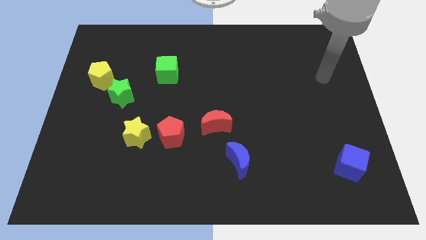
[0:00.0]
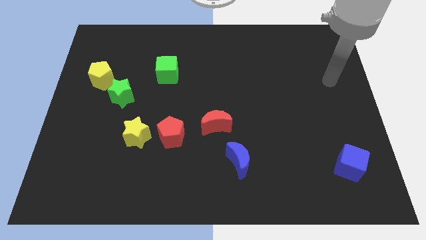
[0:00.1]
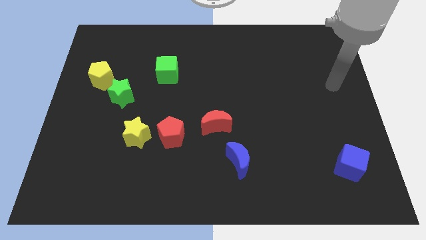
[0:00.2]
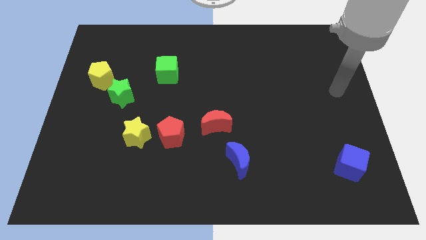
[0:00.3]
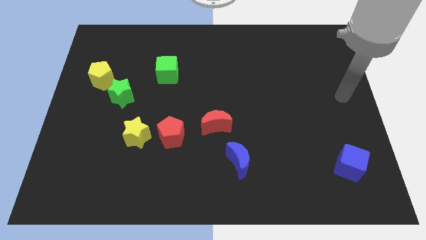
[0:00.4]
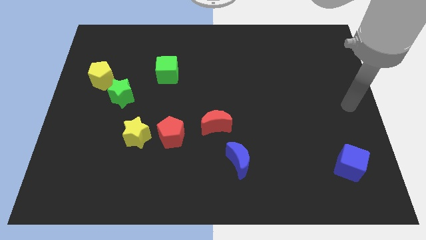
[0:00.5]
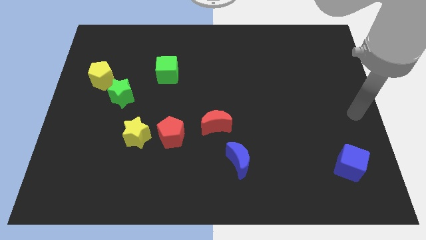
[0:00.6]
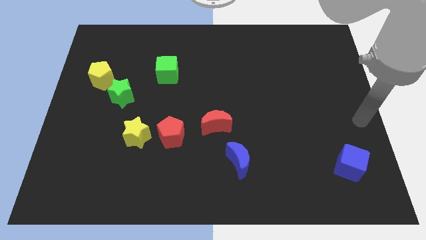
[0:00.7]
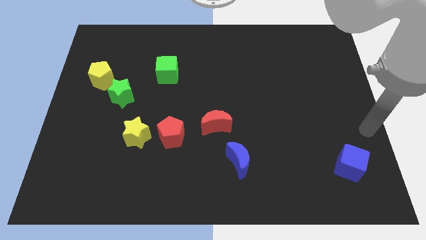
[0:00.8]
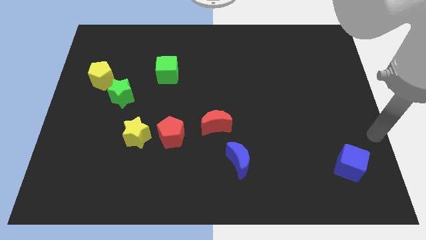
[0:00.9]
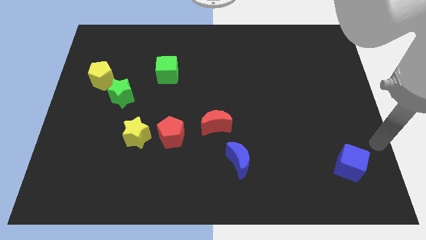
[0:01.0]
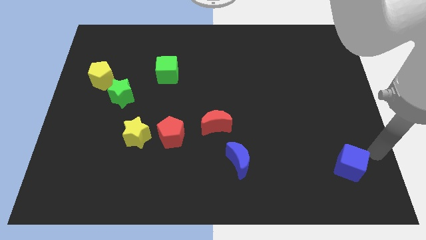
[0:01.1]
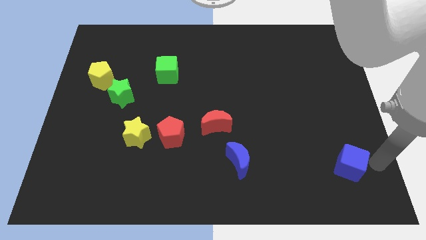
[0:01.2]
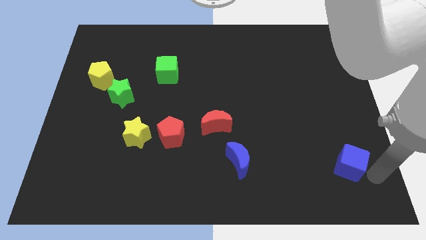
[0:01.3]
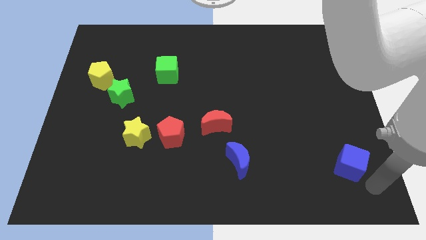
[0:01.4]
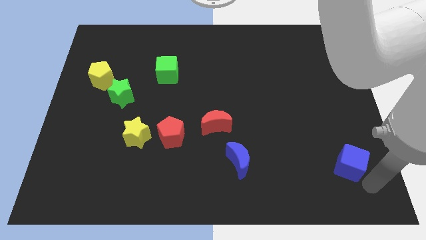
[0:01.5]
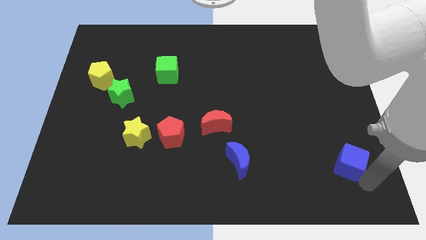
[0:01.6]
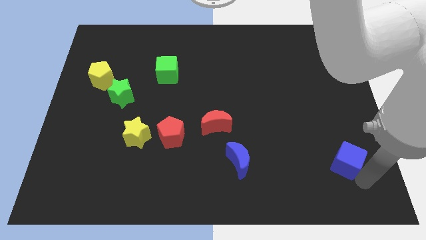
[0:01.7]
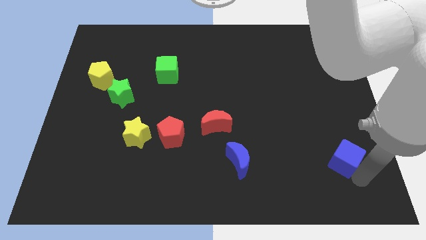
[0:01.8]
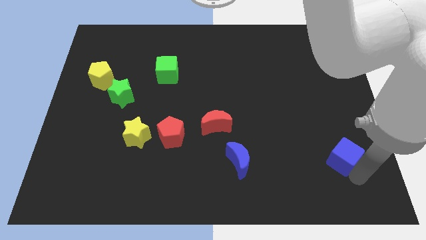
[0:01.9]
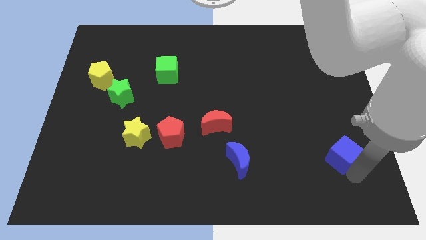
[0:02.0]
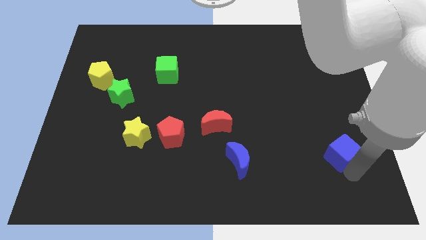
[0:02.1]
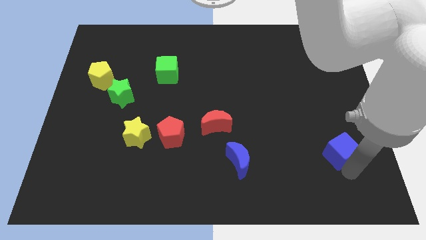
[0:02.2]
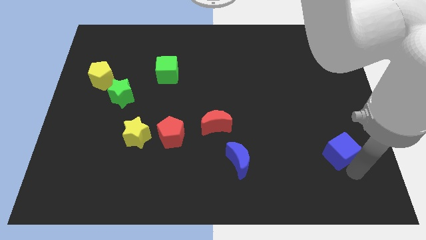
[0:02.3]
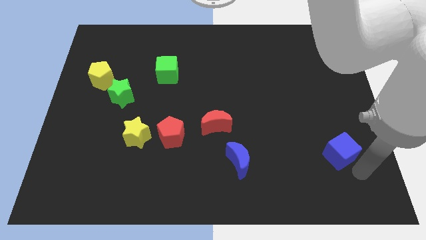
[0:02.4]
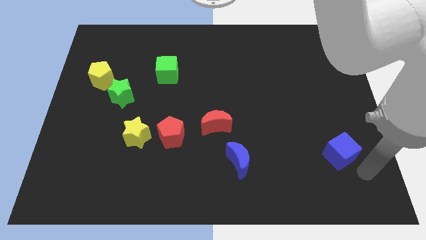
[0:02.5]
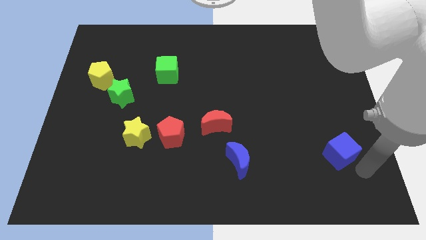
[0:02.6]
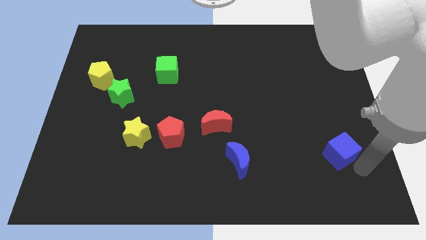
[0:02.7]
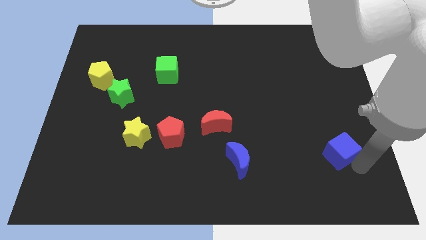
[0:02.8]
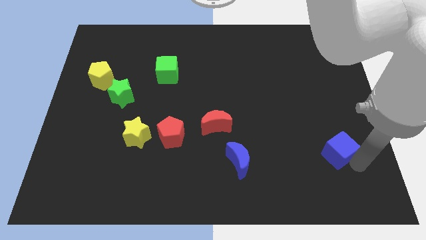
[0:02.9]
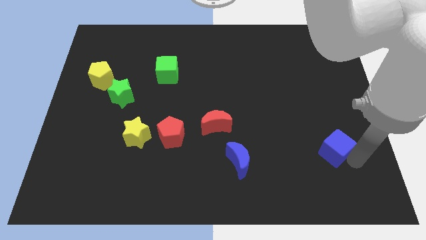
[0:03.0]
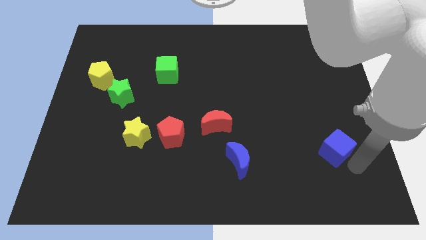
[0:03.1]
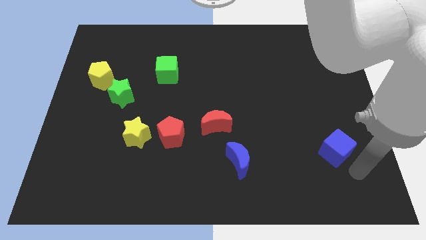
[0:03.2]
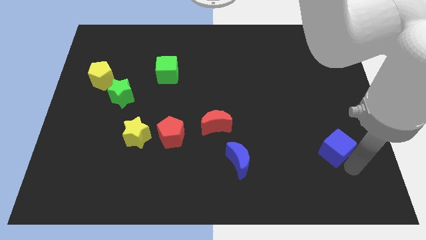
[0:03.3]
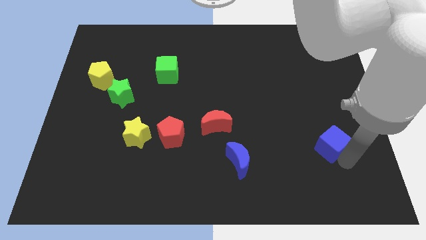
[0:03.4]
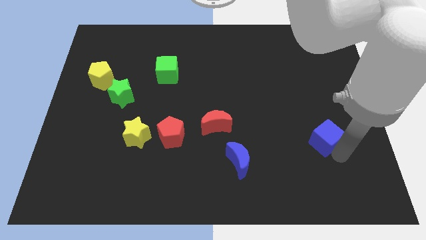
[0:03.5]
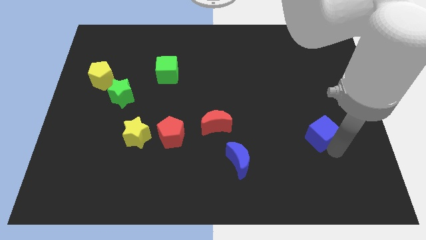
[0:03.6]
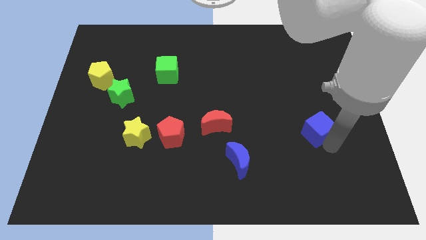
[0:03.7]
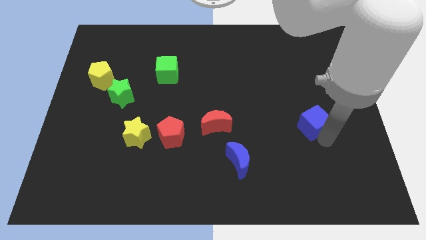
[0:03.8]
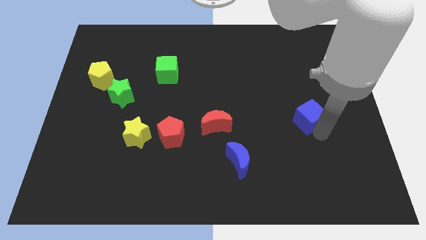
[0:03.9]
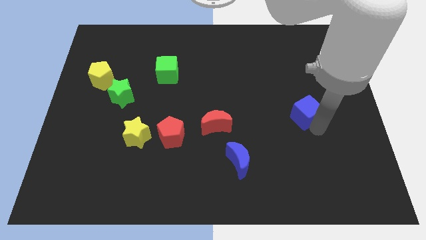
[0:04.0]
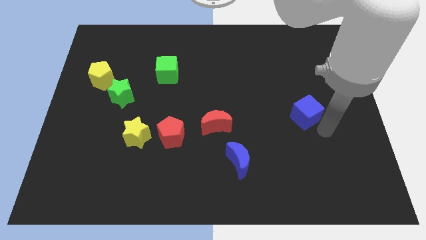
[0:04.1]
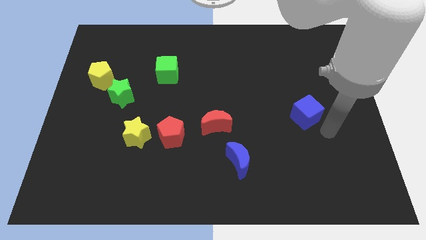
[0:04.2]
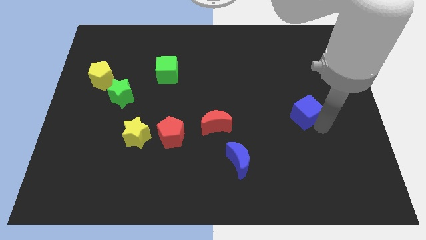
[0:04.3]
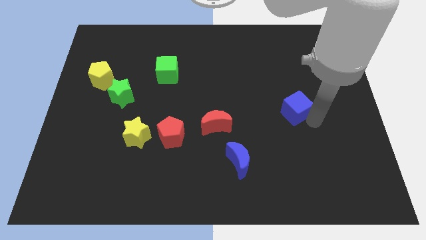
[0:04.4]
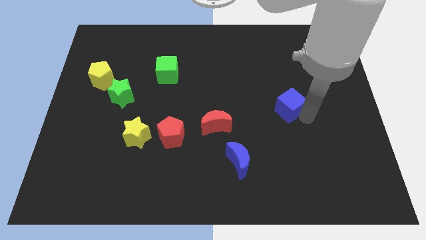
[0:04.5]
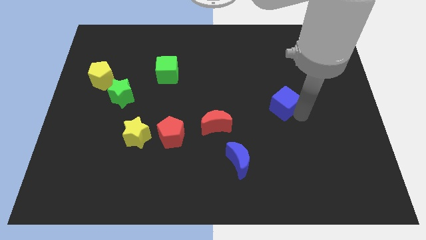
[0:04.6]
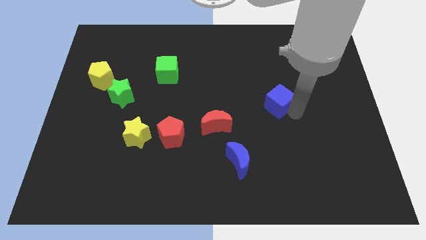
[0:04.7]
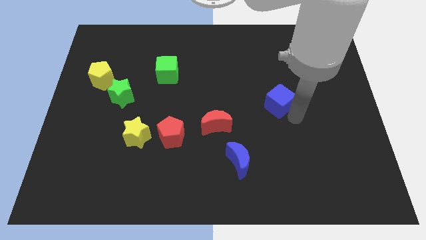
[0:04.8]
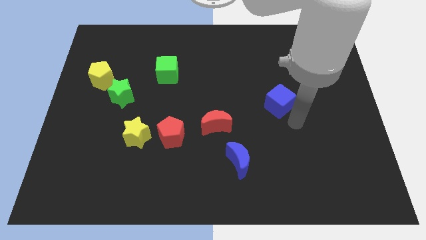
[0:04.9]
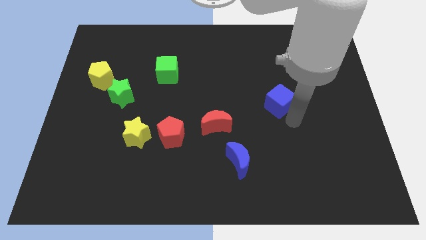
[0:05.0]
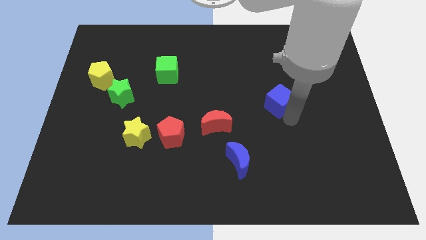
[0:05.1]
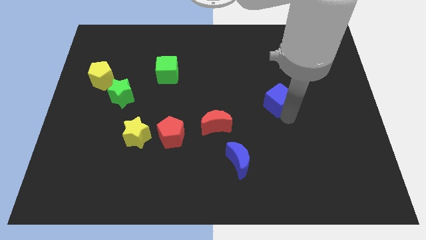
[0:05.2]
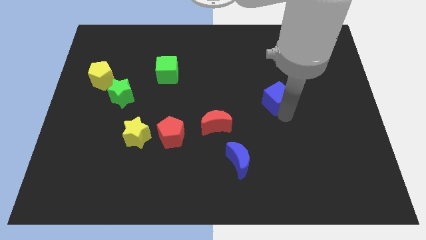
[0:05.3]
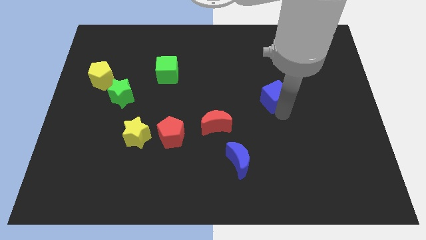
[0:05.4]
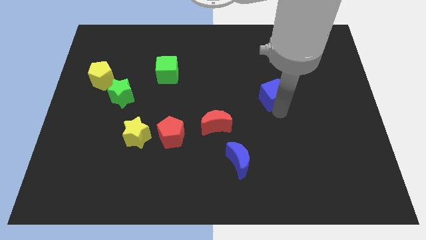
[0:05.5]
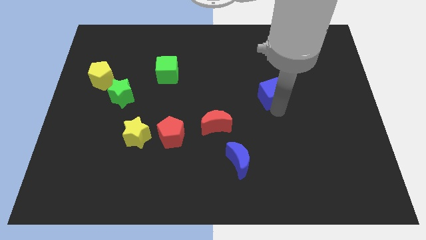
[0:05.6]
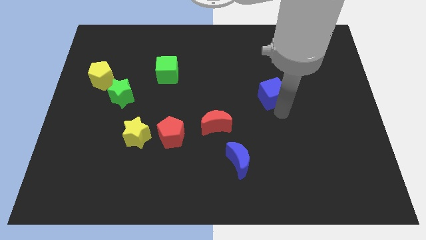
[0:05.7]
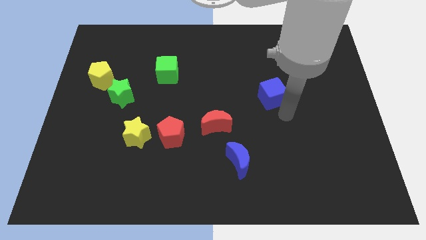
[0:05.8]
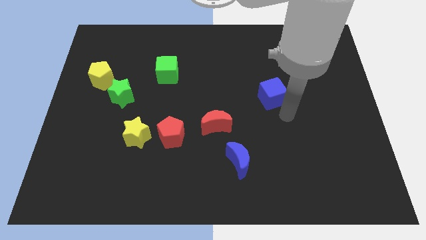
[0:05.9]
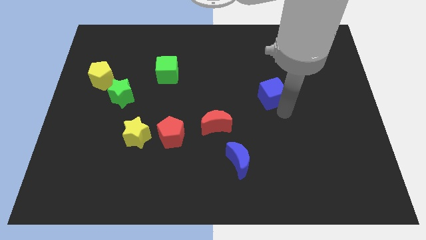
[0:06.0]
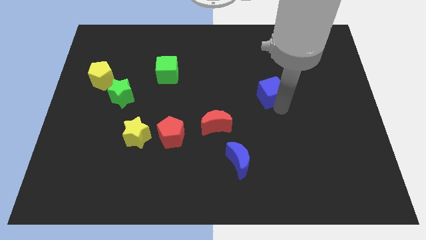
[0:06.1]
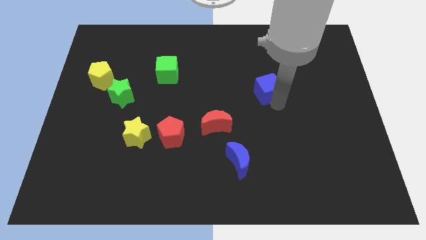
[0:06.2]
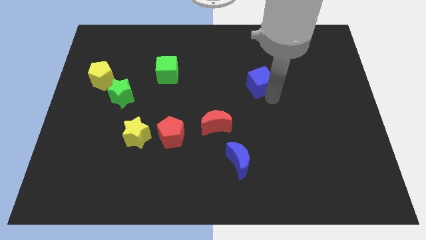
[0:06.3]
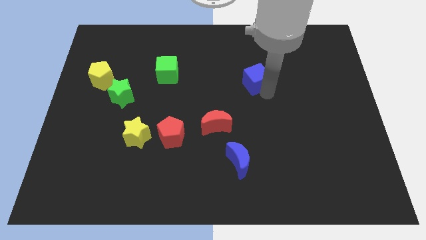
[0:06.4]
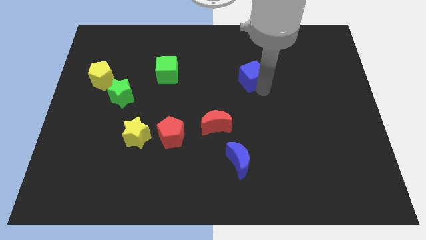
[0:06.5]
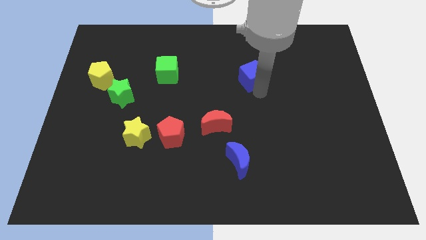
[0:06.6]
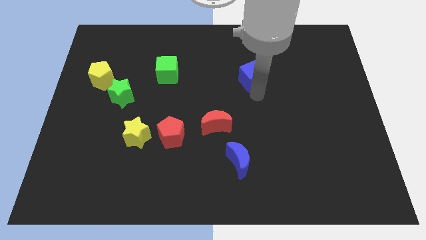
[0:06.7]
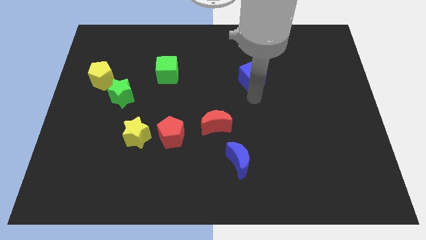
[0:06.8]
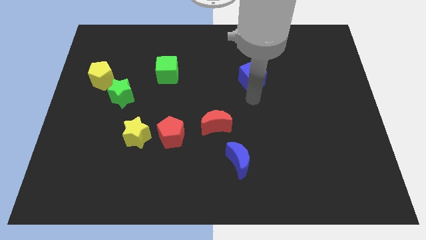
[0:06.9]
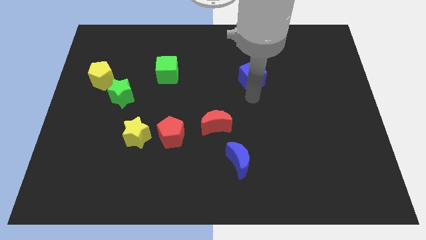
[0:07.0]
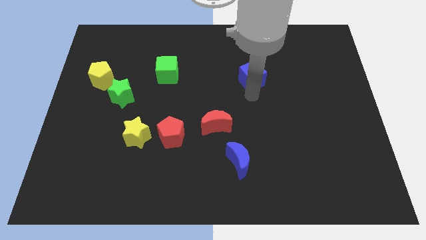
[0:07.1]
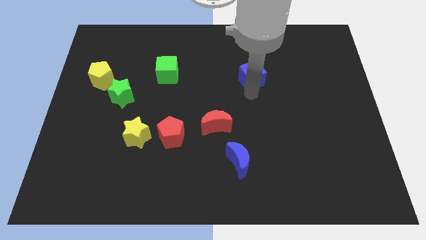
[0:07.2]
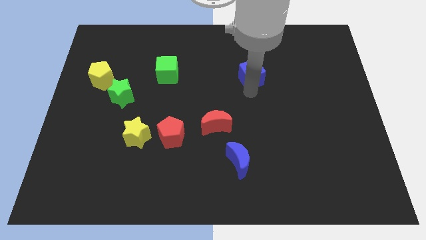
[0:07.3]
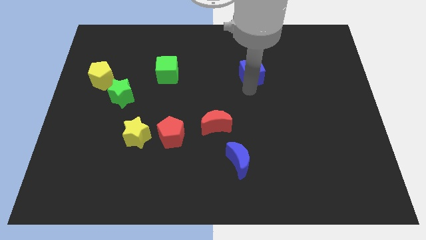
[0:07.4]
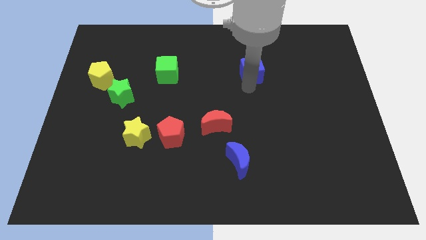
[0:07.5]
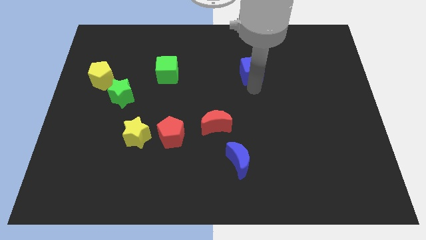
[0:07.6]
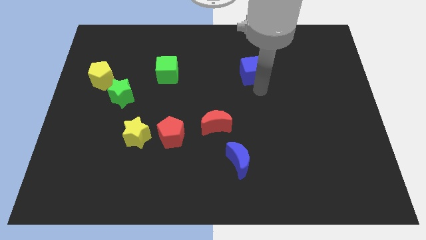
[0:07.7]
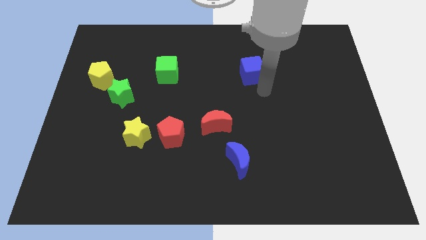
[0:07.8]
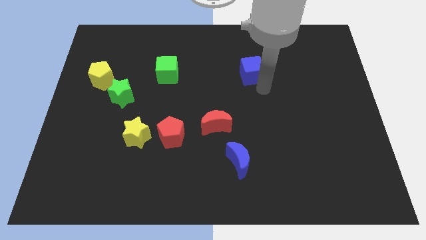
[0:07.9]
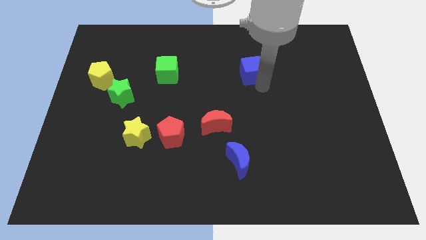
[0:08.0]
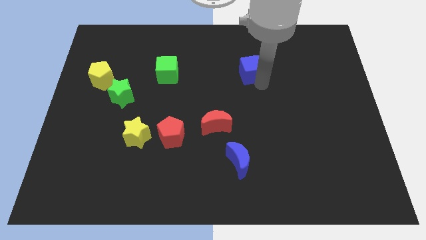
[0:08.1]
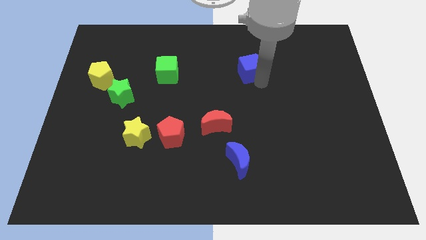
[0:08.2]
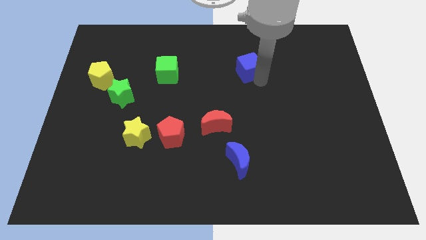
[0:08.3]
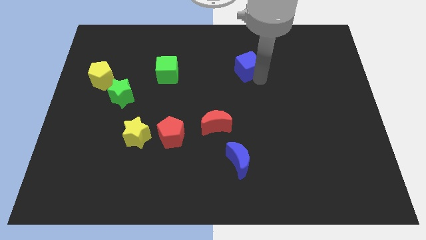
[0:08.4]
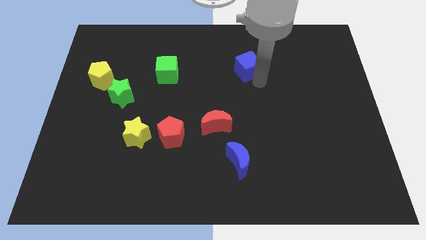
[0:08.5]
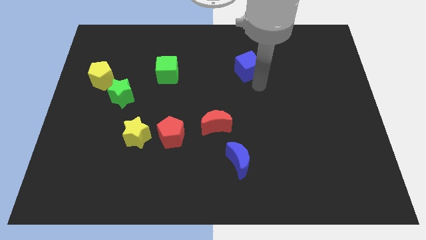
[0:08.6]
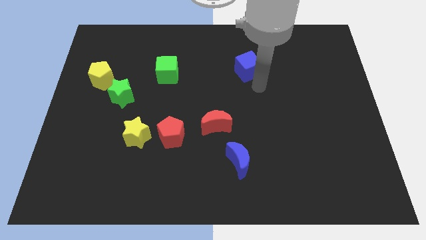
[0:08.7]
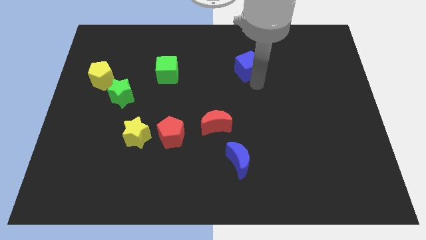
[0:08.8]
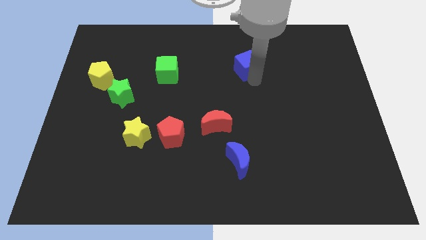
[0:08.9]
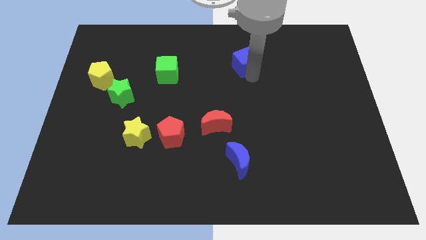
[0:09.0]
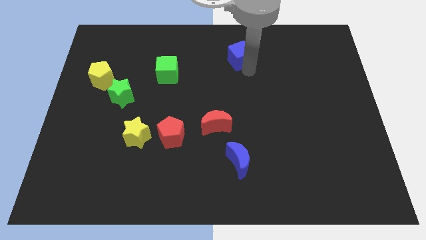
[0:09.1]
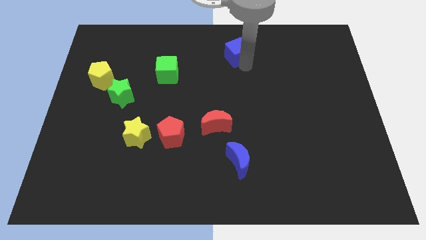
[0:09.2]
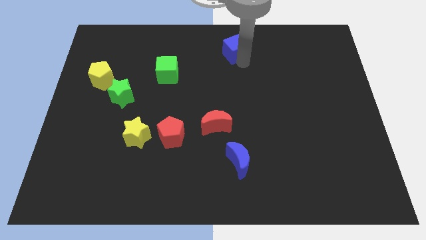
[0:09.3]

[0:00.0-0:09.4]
put the blue cube to the towards your base
